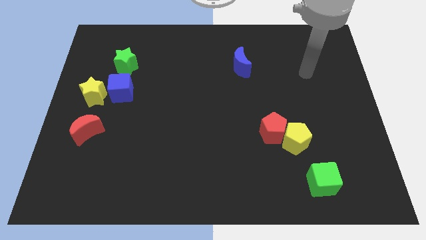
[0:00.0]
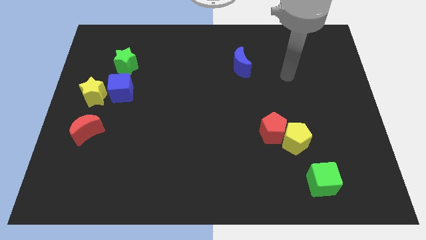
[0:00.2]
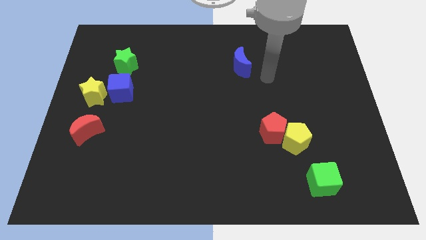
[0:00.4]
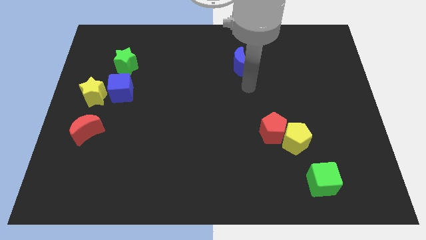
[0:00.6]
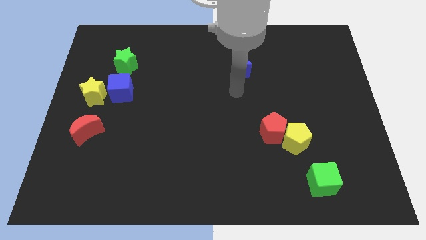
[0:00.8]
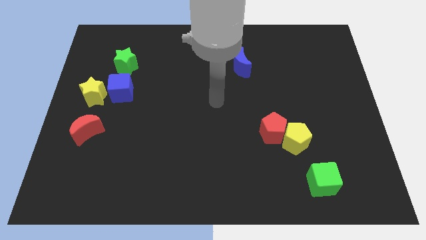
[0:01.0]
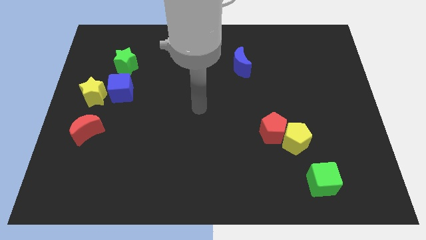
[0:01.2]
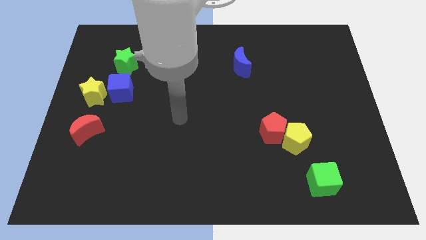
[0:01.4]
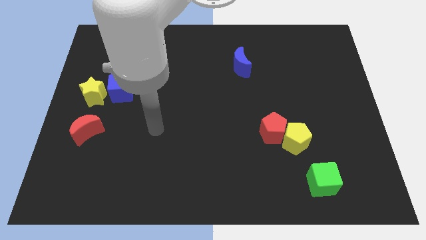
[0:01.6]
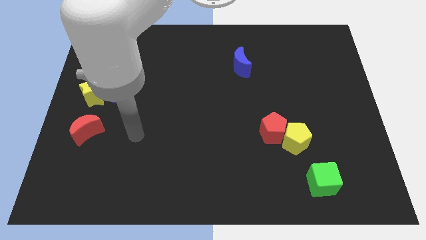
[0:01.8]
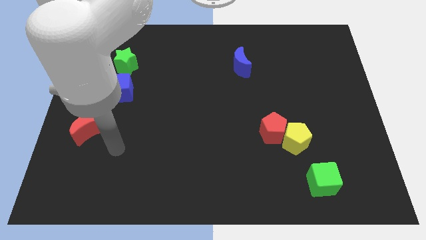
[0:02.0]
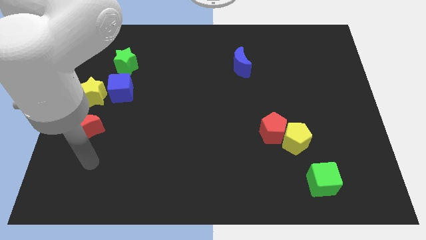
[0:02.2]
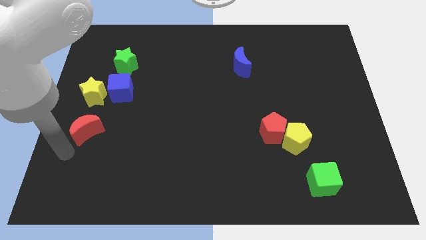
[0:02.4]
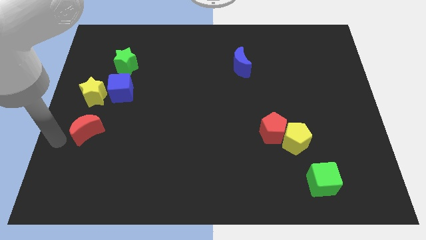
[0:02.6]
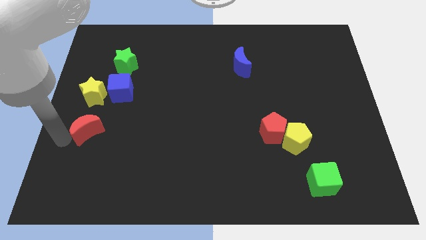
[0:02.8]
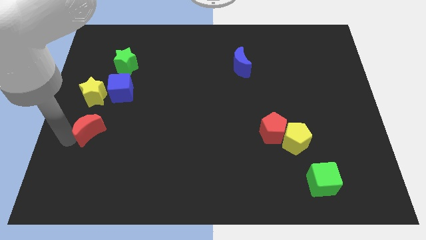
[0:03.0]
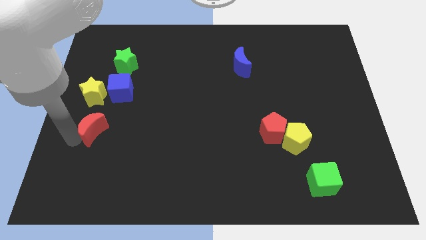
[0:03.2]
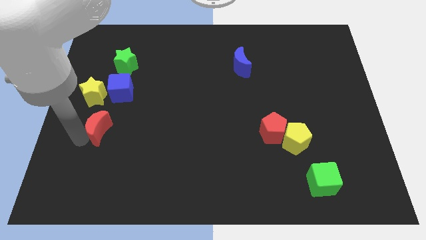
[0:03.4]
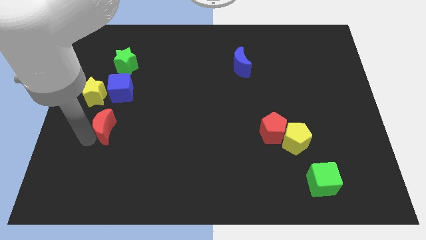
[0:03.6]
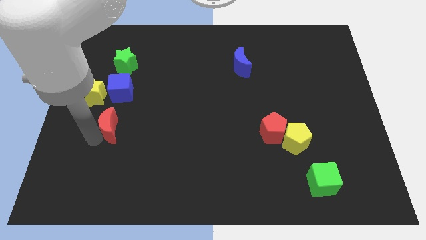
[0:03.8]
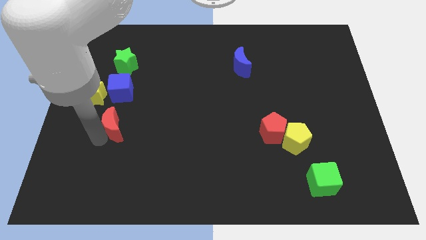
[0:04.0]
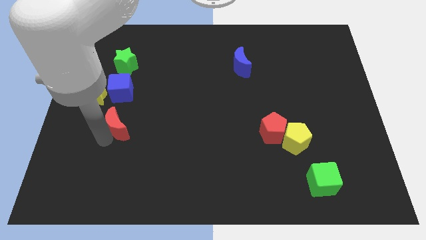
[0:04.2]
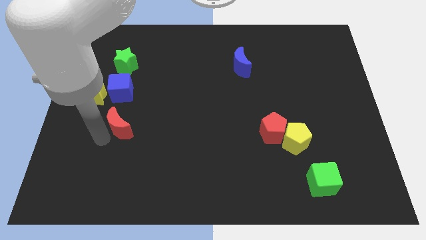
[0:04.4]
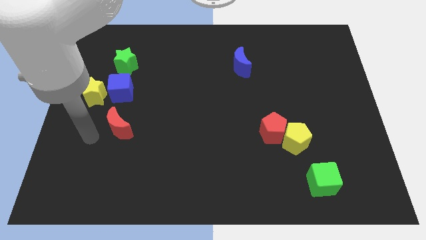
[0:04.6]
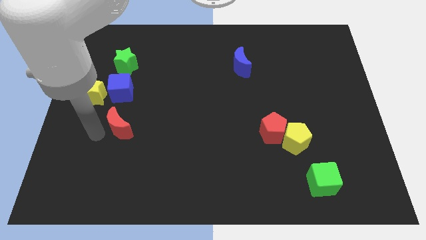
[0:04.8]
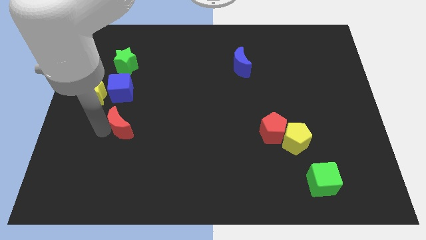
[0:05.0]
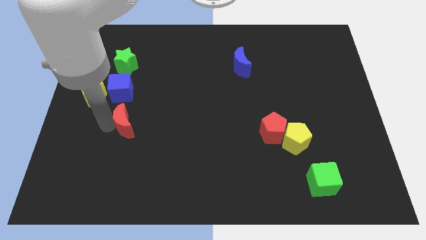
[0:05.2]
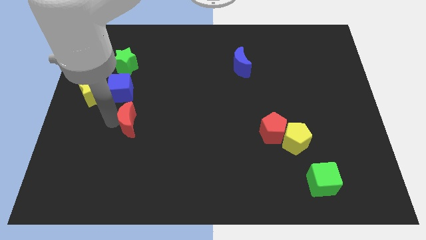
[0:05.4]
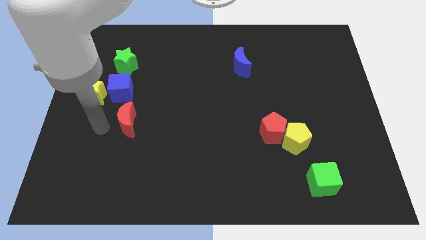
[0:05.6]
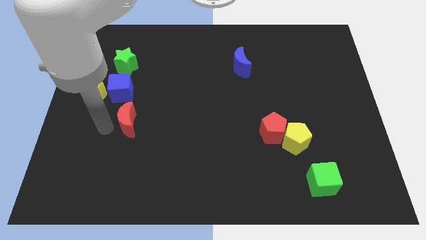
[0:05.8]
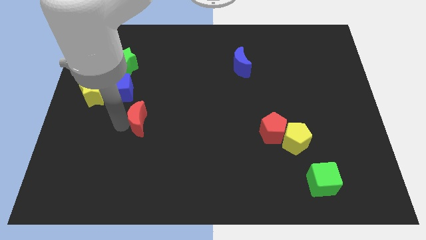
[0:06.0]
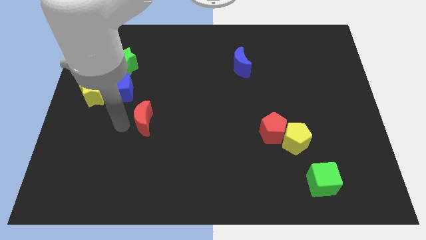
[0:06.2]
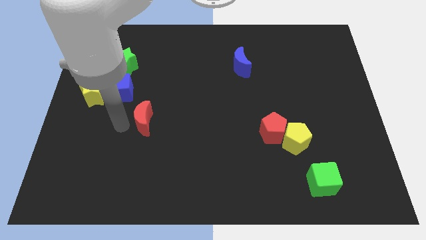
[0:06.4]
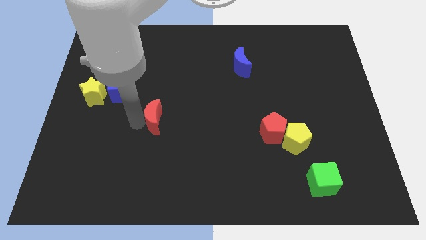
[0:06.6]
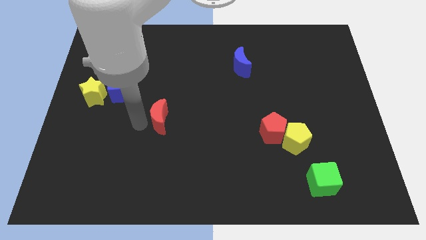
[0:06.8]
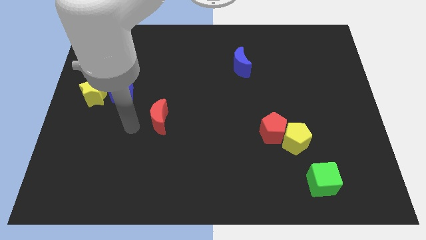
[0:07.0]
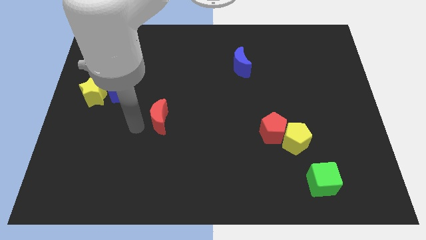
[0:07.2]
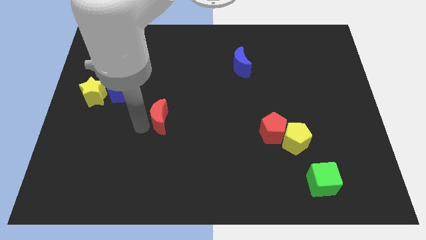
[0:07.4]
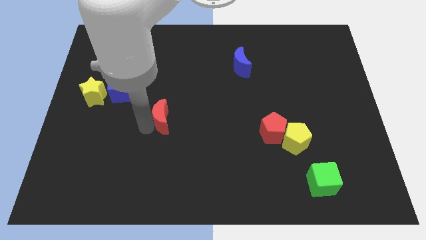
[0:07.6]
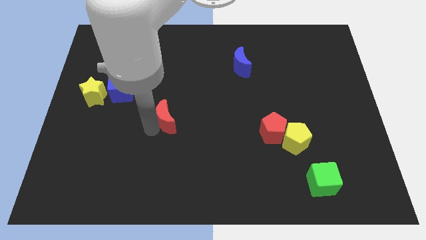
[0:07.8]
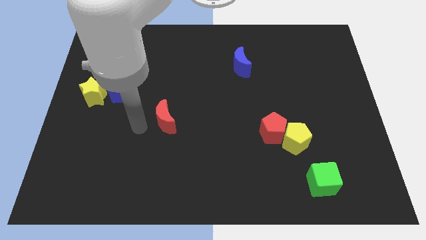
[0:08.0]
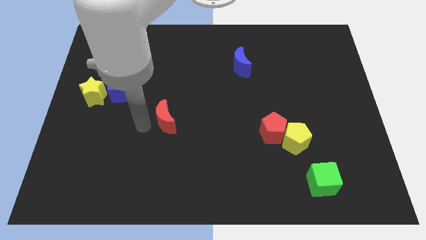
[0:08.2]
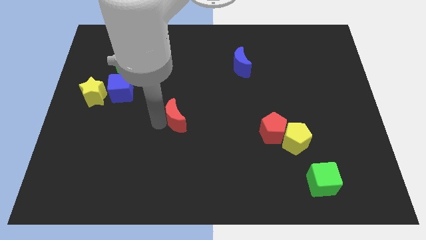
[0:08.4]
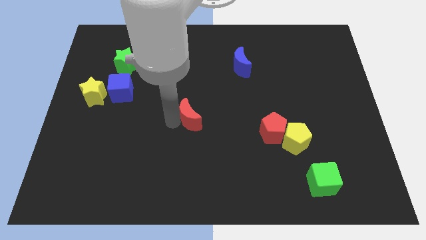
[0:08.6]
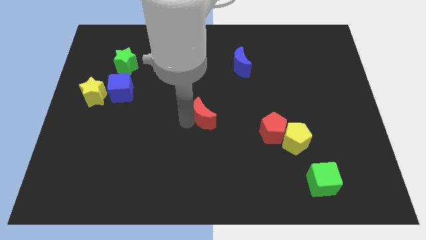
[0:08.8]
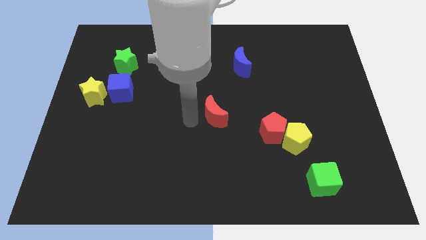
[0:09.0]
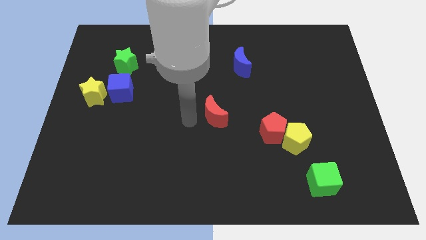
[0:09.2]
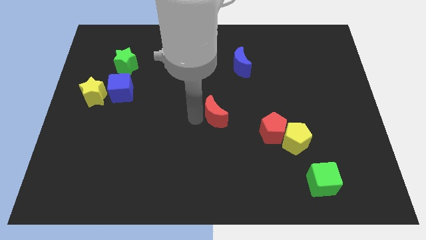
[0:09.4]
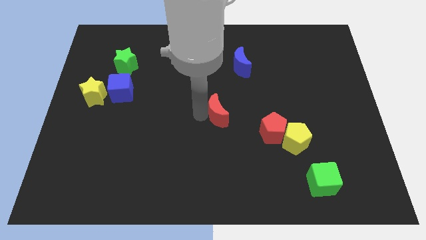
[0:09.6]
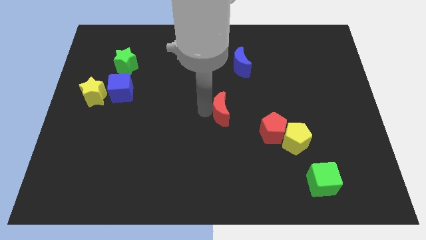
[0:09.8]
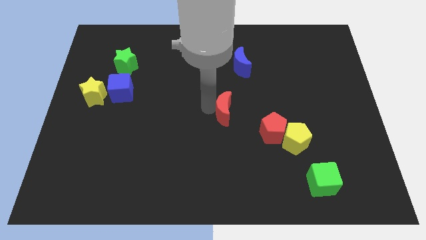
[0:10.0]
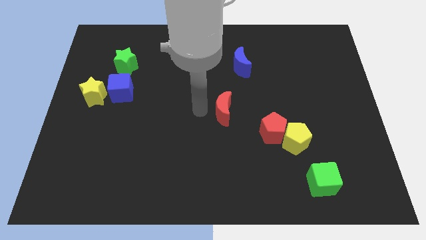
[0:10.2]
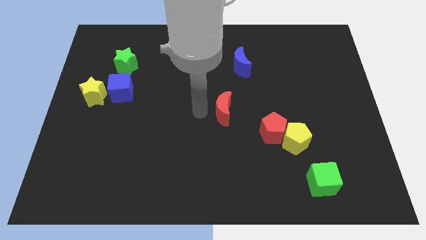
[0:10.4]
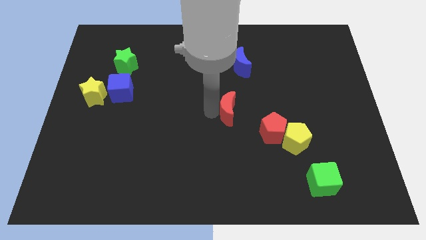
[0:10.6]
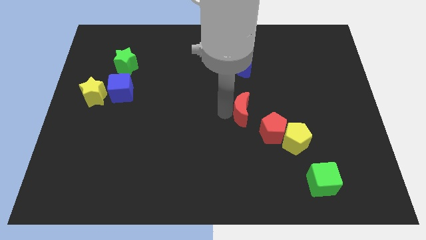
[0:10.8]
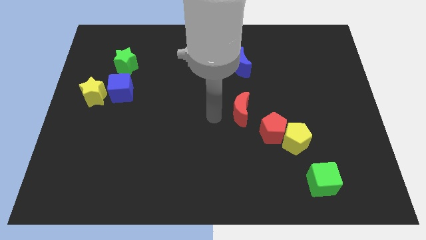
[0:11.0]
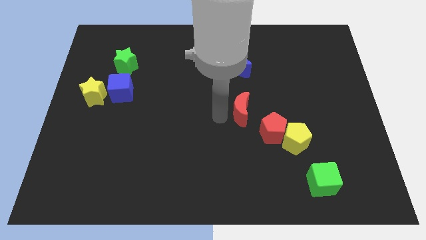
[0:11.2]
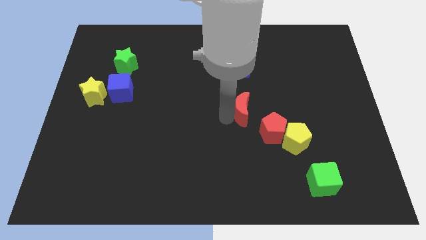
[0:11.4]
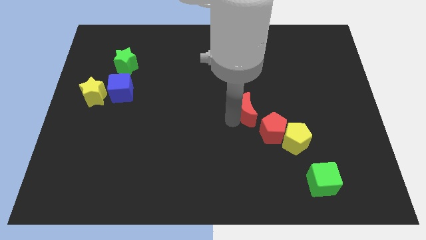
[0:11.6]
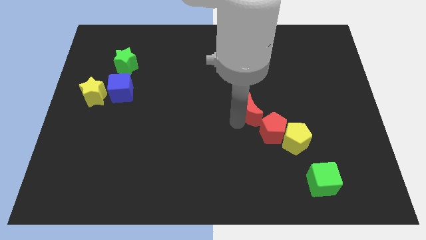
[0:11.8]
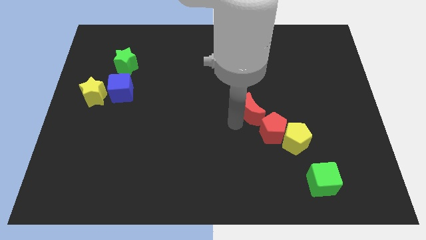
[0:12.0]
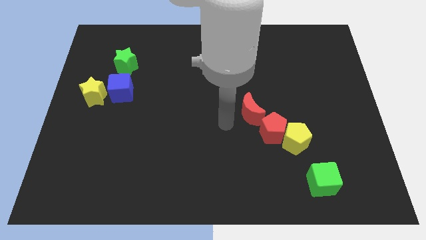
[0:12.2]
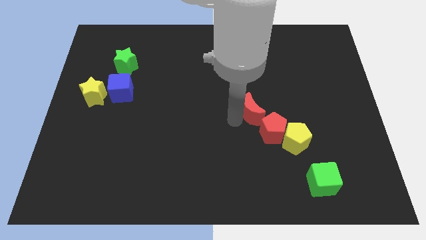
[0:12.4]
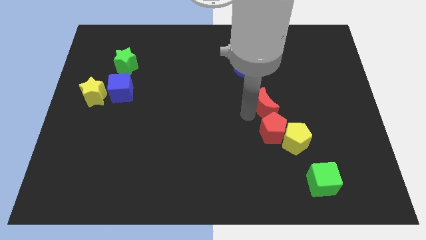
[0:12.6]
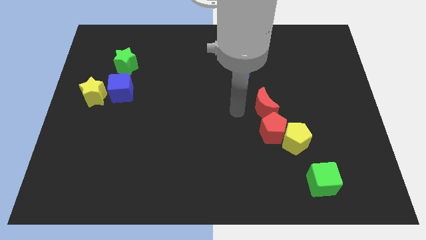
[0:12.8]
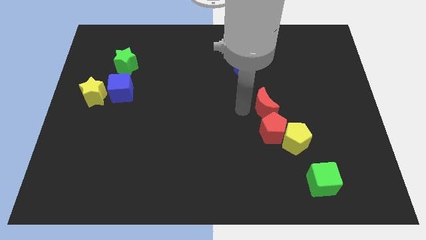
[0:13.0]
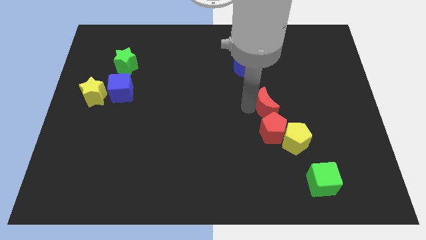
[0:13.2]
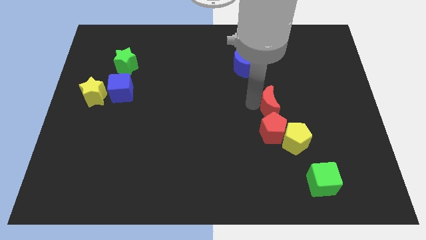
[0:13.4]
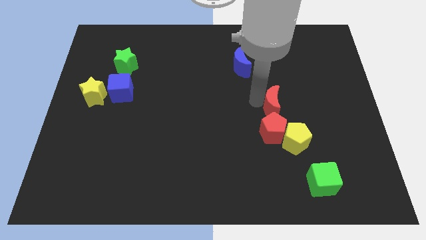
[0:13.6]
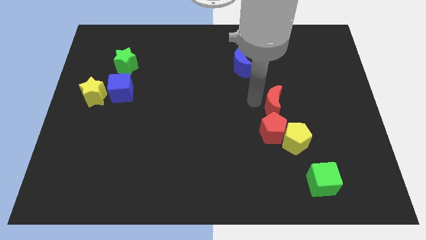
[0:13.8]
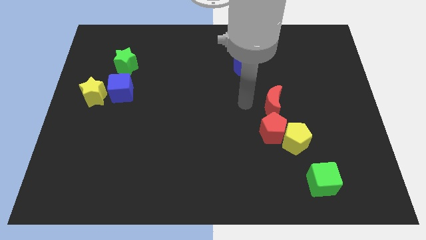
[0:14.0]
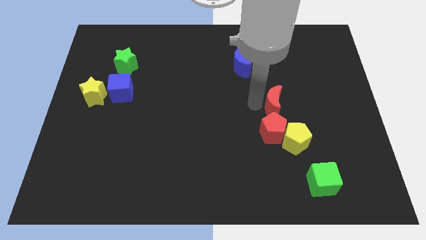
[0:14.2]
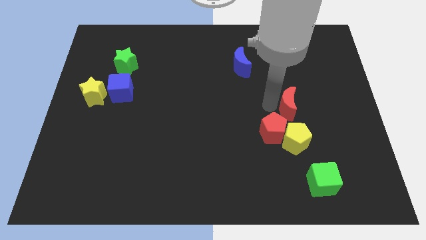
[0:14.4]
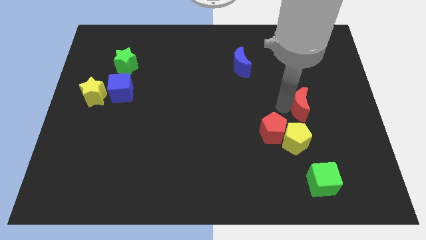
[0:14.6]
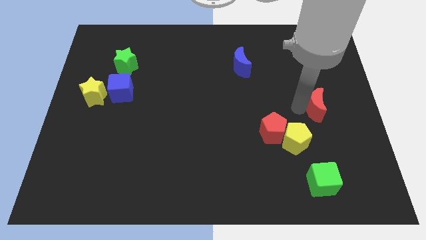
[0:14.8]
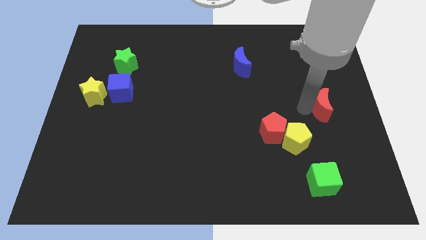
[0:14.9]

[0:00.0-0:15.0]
move the red moon to the right side of the board
